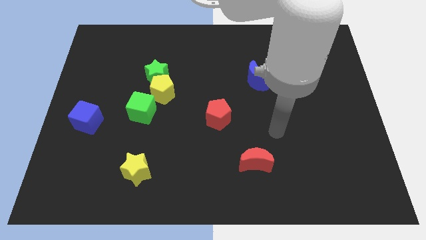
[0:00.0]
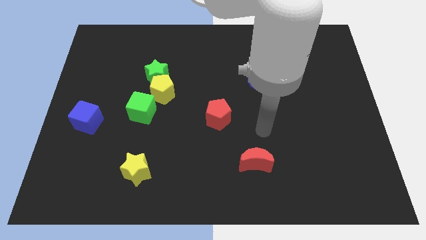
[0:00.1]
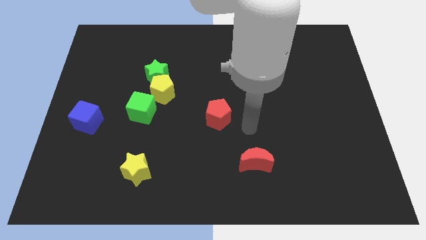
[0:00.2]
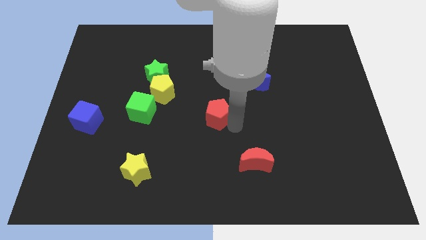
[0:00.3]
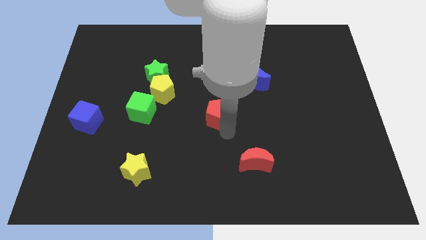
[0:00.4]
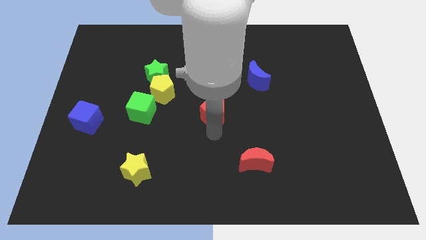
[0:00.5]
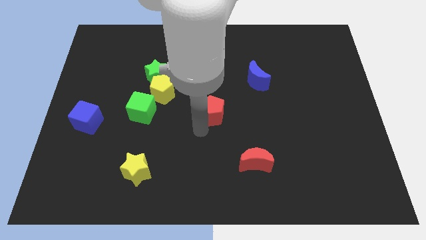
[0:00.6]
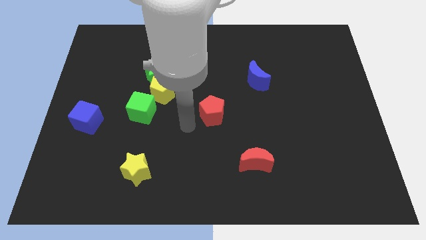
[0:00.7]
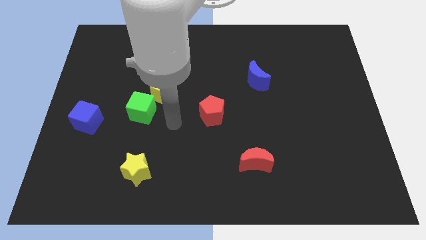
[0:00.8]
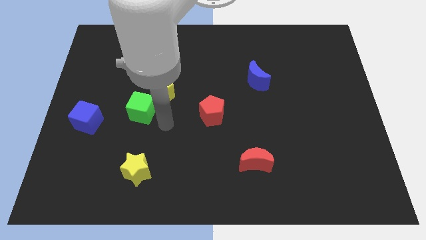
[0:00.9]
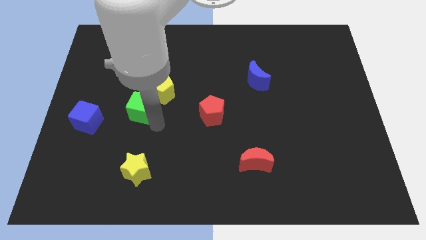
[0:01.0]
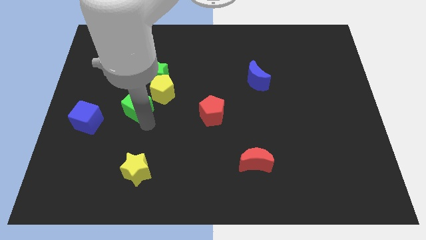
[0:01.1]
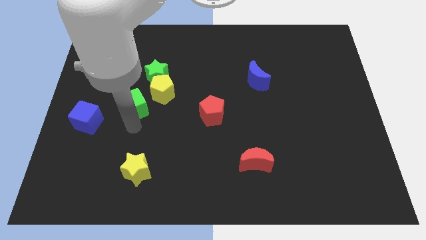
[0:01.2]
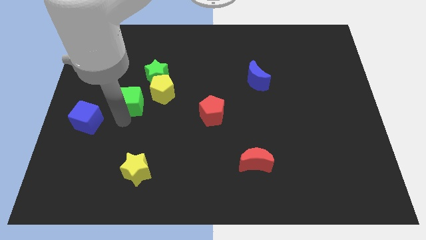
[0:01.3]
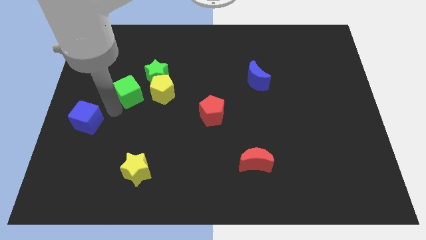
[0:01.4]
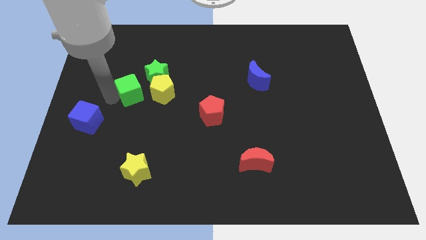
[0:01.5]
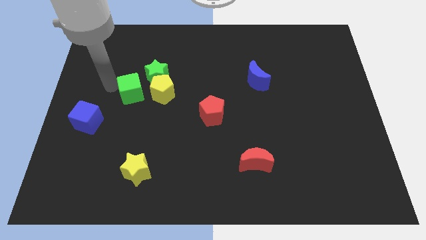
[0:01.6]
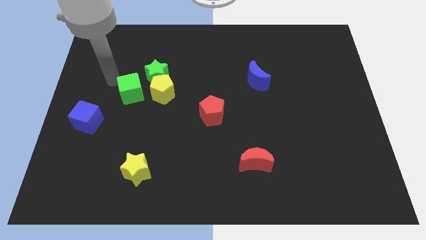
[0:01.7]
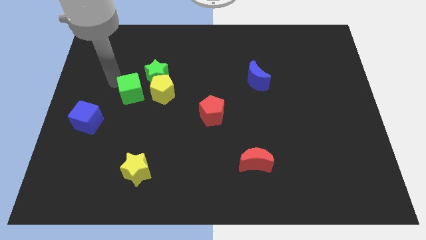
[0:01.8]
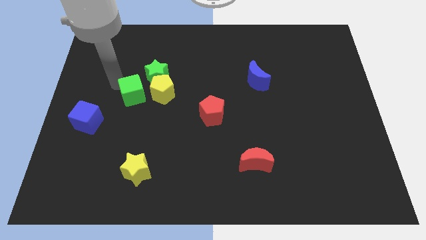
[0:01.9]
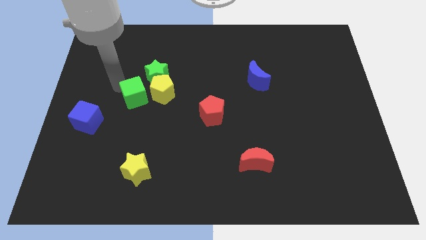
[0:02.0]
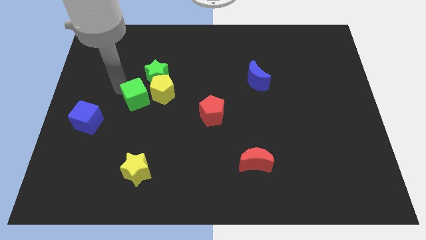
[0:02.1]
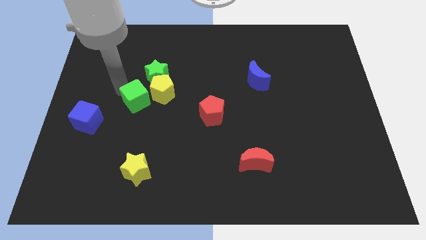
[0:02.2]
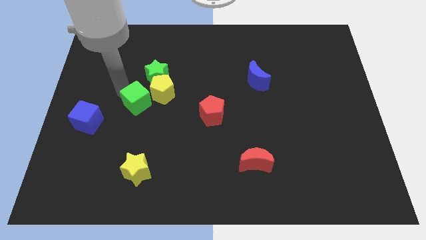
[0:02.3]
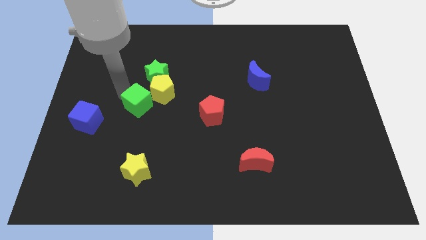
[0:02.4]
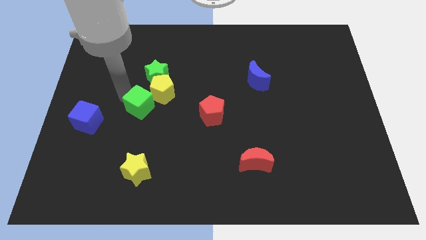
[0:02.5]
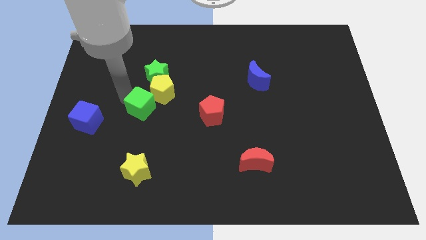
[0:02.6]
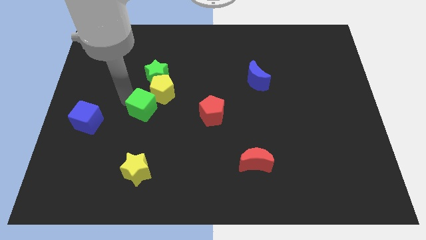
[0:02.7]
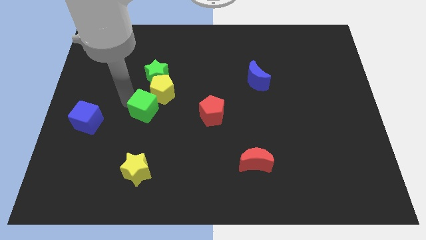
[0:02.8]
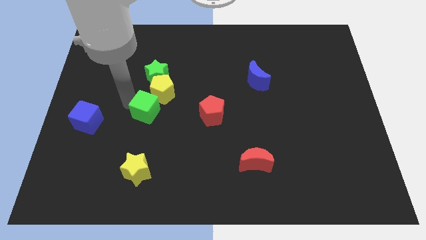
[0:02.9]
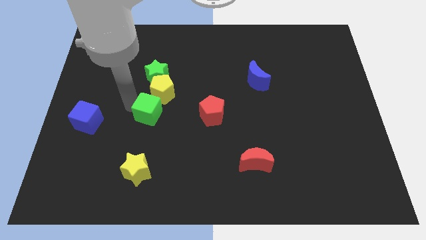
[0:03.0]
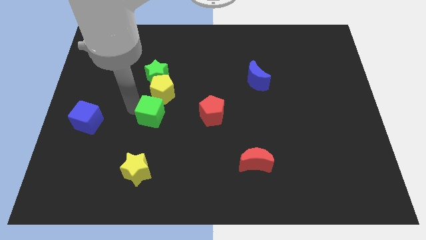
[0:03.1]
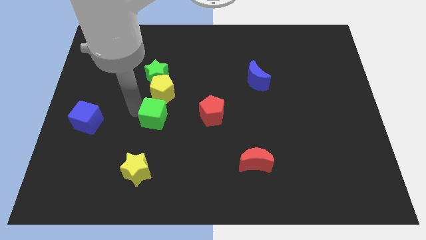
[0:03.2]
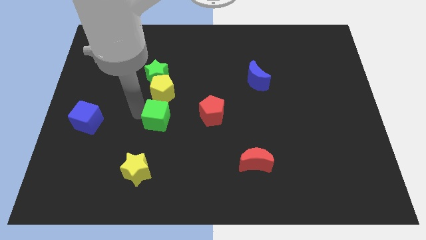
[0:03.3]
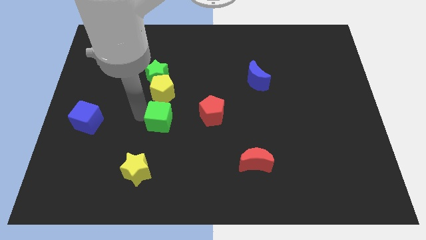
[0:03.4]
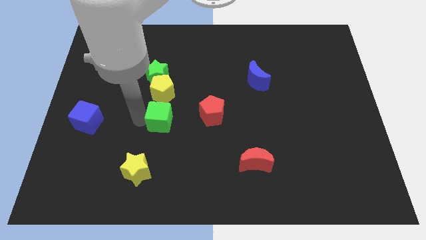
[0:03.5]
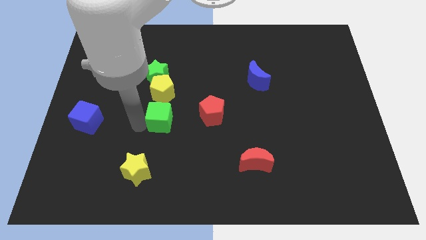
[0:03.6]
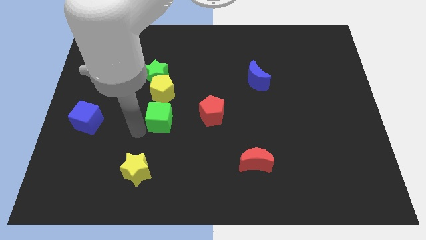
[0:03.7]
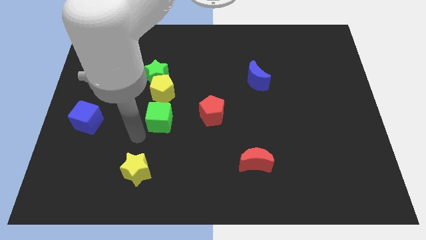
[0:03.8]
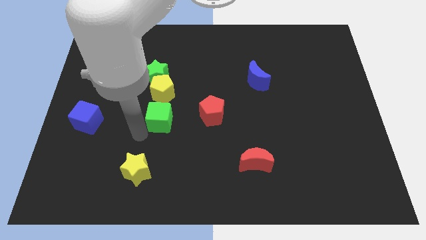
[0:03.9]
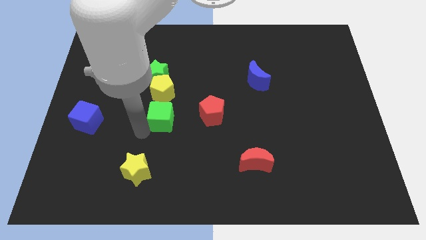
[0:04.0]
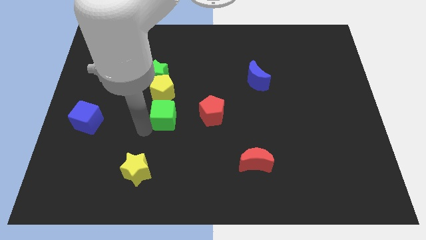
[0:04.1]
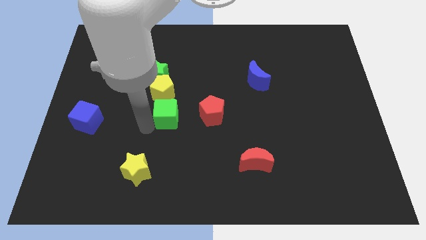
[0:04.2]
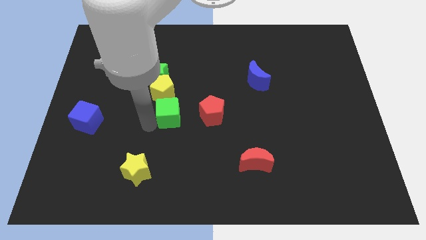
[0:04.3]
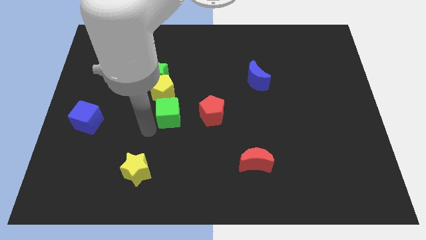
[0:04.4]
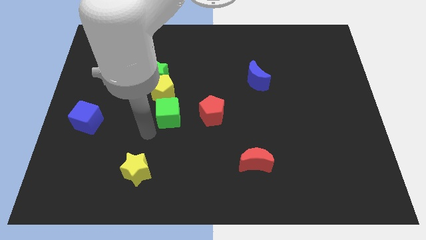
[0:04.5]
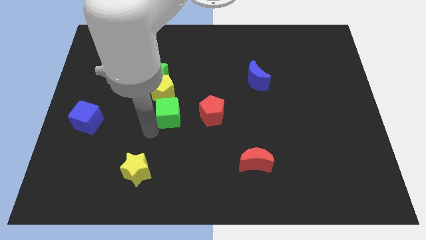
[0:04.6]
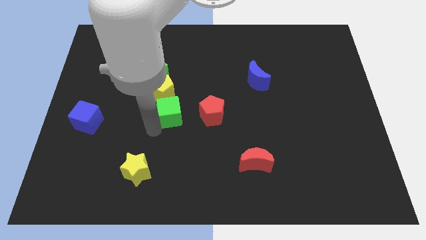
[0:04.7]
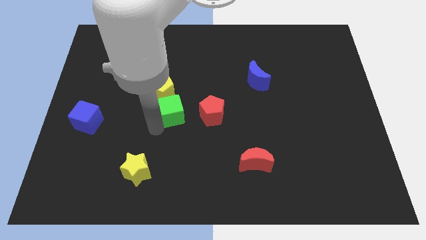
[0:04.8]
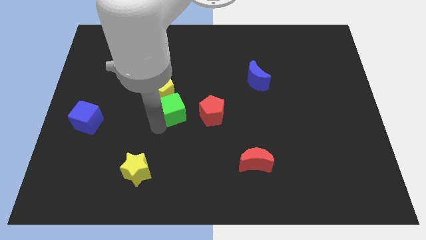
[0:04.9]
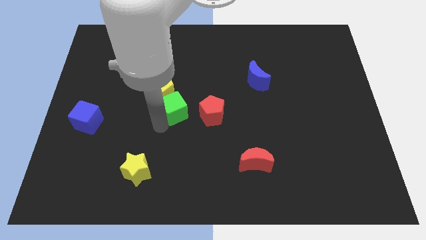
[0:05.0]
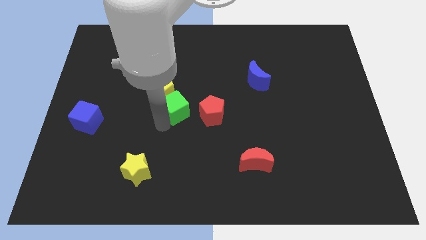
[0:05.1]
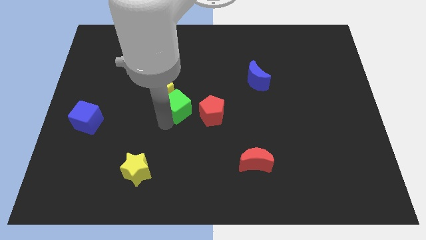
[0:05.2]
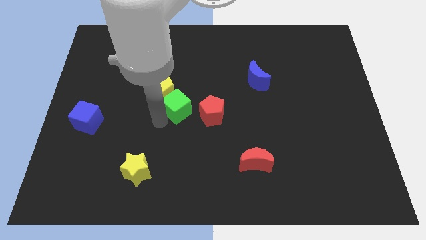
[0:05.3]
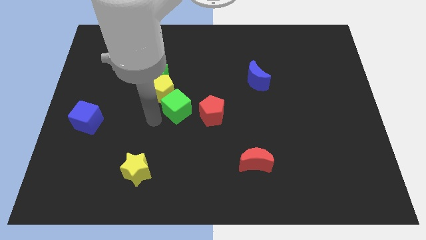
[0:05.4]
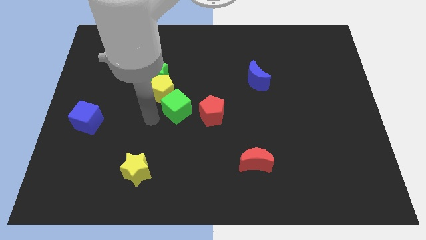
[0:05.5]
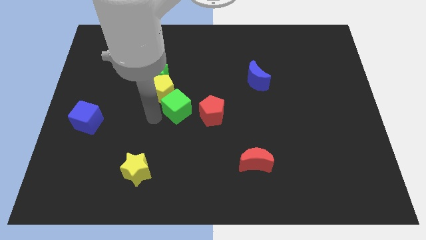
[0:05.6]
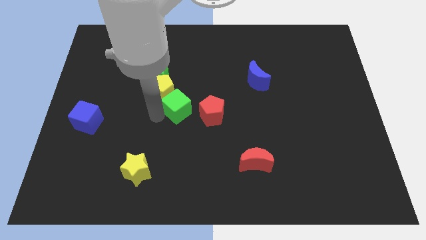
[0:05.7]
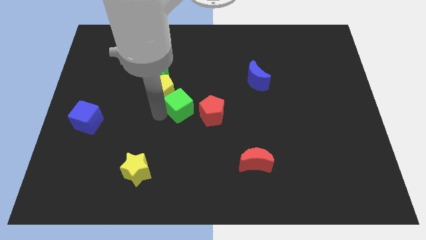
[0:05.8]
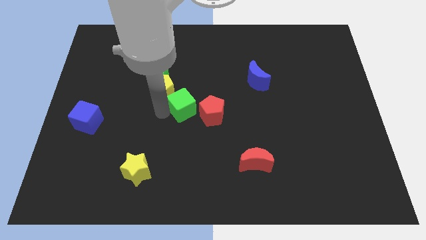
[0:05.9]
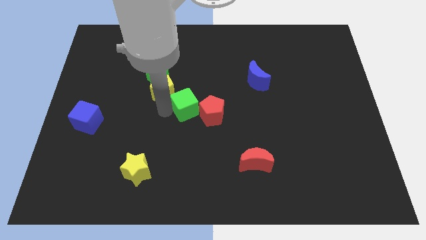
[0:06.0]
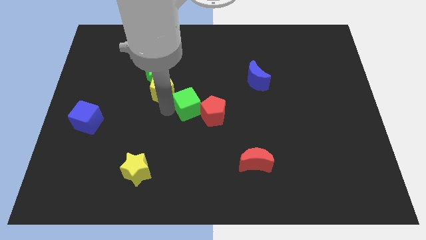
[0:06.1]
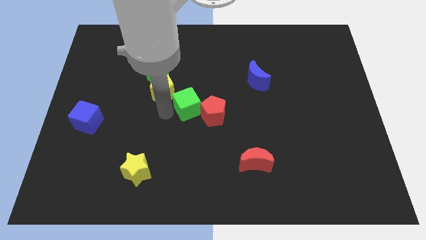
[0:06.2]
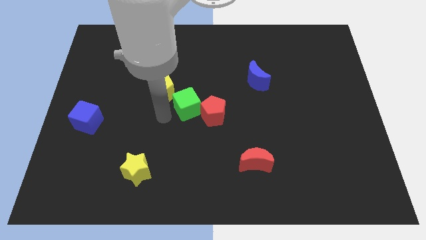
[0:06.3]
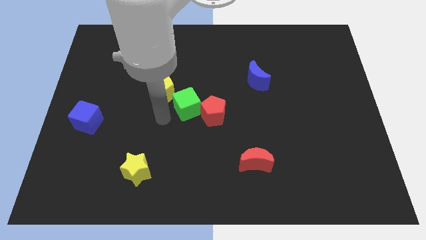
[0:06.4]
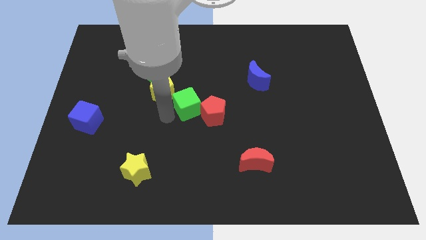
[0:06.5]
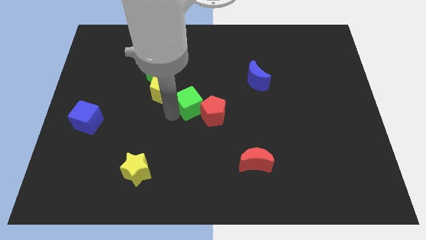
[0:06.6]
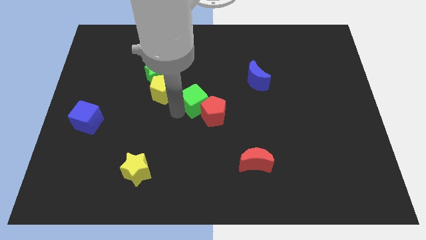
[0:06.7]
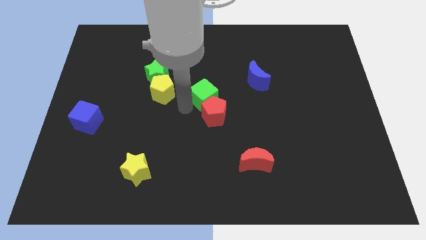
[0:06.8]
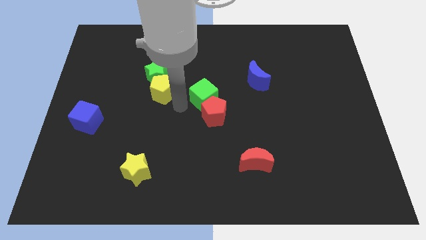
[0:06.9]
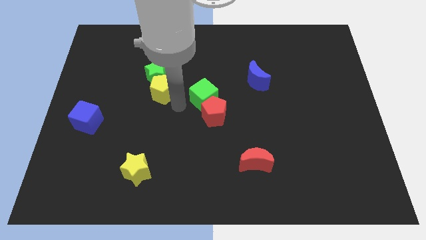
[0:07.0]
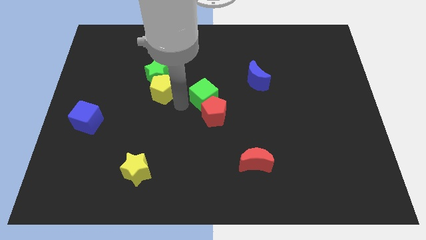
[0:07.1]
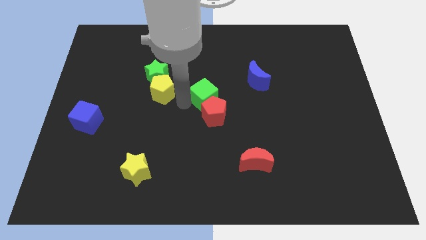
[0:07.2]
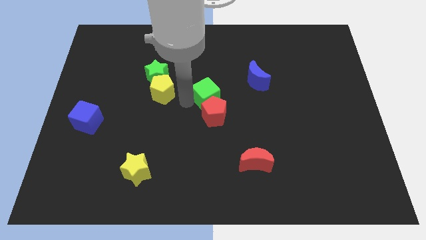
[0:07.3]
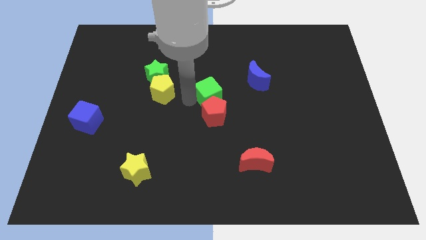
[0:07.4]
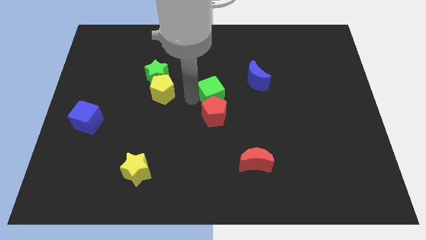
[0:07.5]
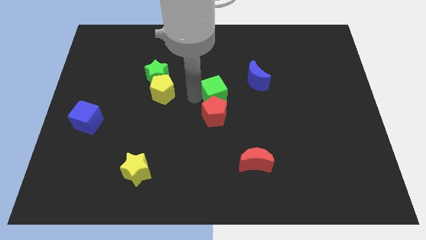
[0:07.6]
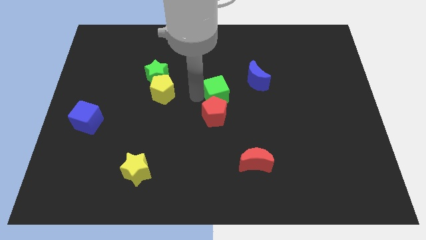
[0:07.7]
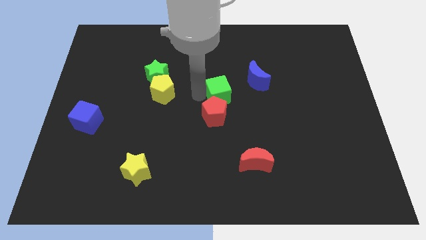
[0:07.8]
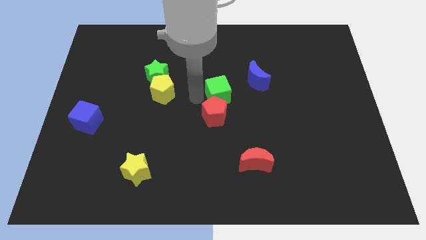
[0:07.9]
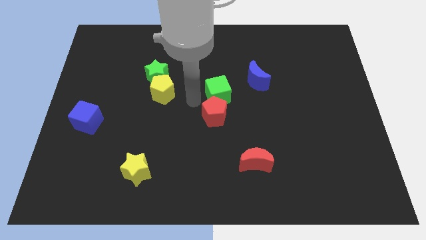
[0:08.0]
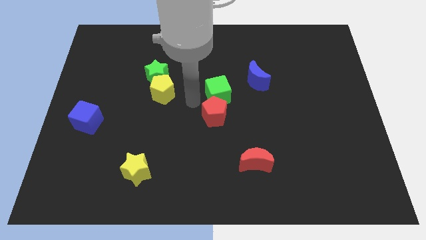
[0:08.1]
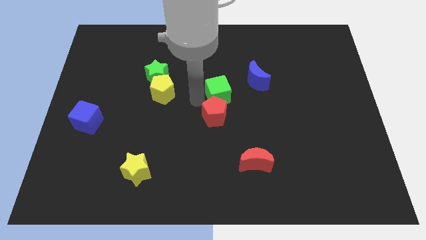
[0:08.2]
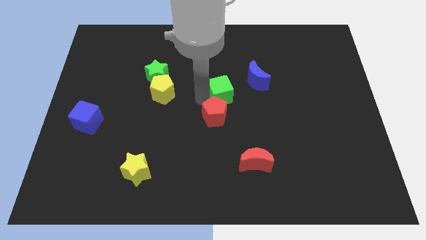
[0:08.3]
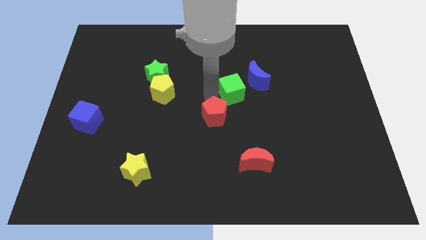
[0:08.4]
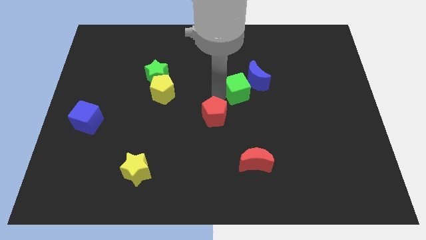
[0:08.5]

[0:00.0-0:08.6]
put the green cube close to the blue moon
